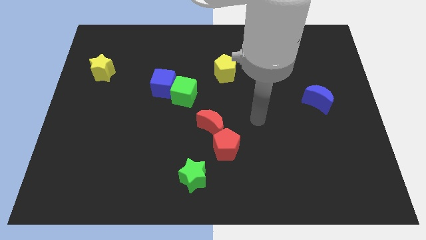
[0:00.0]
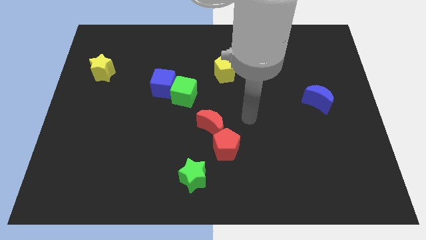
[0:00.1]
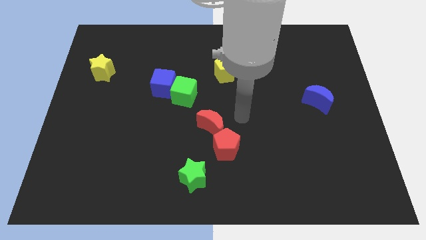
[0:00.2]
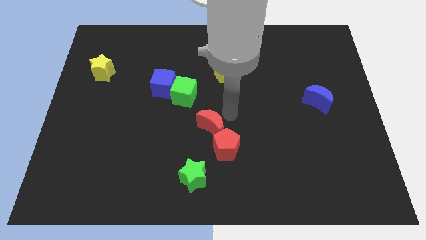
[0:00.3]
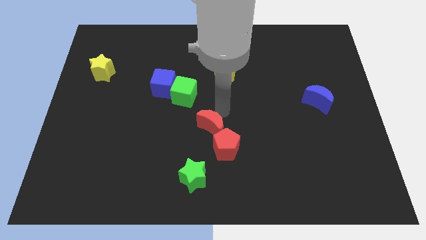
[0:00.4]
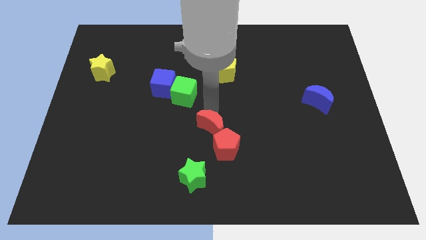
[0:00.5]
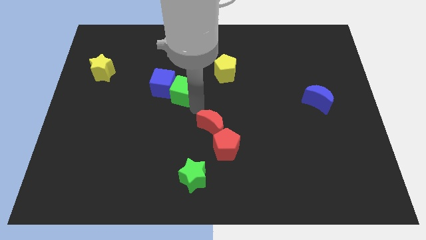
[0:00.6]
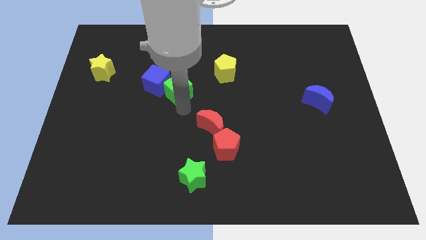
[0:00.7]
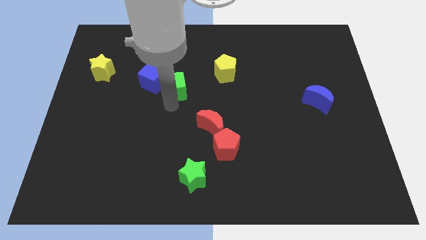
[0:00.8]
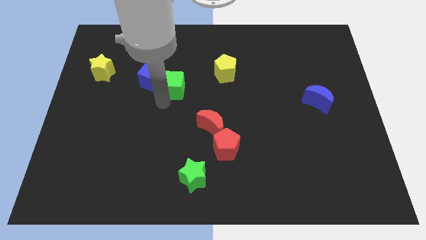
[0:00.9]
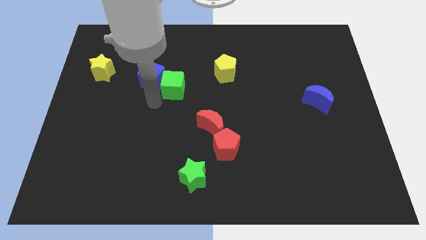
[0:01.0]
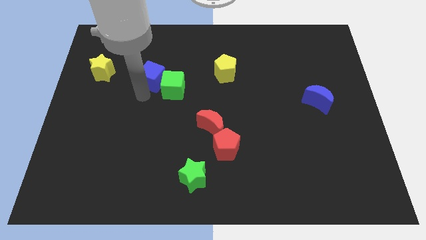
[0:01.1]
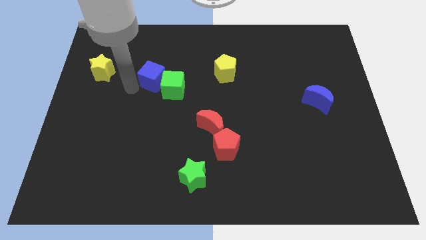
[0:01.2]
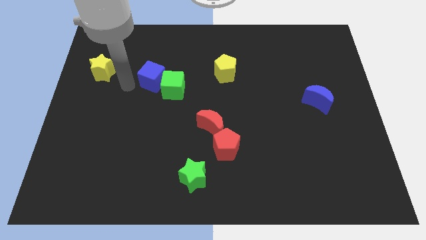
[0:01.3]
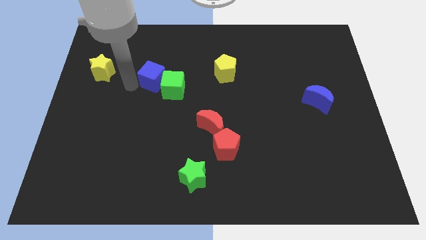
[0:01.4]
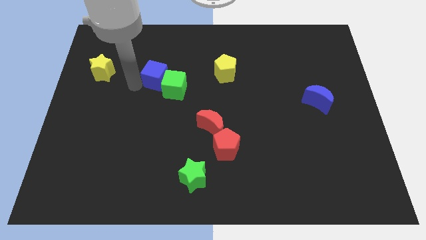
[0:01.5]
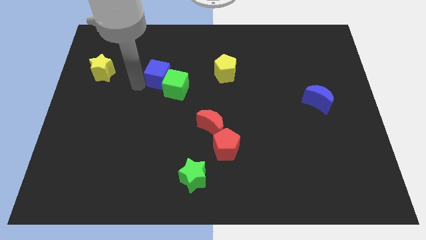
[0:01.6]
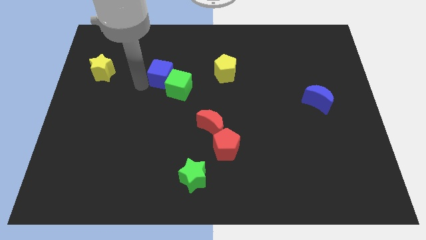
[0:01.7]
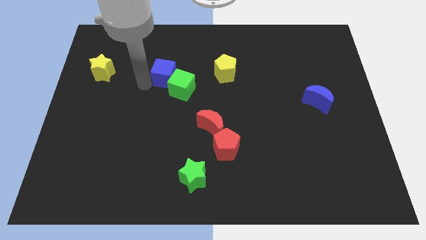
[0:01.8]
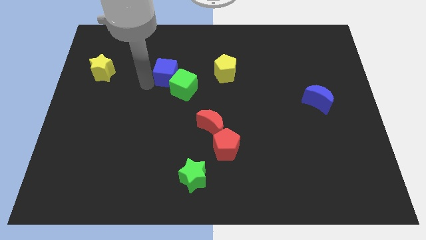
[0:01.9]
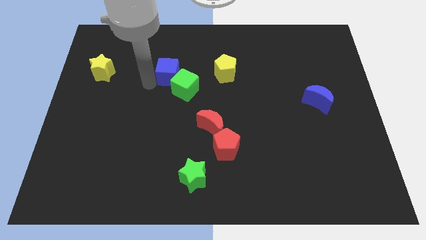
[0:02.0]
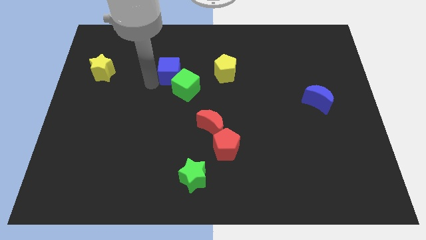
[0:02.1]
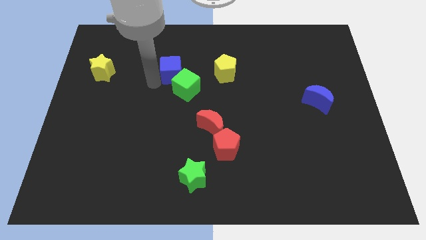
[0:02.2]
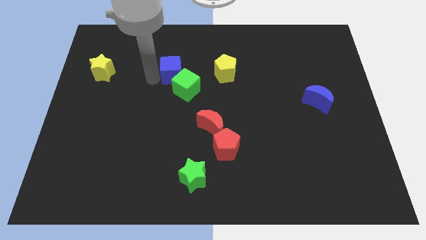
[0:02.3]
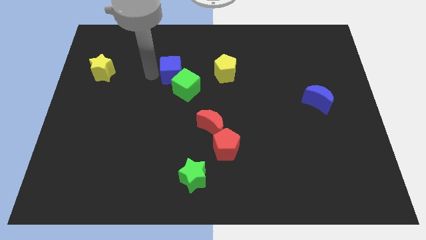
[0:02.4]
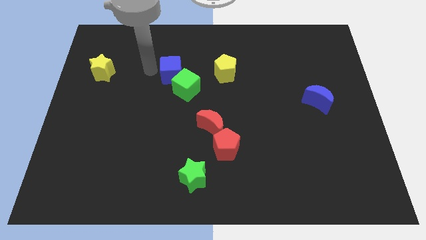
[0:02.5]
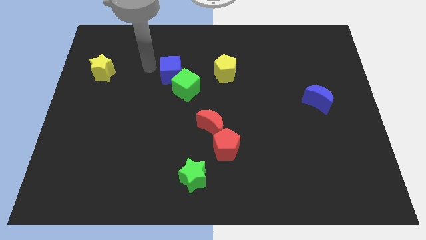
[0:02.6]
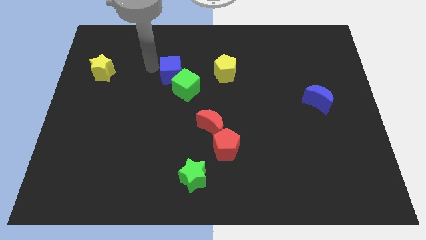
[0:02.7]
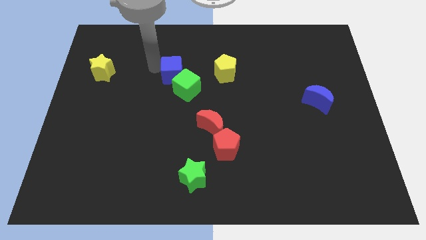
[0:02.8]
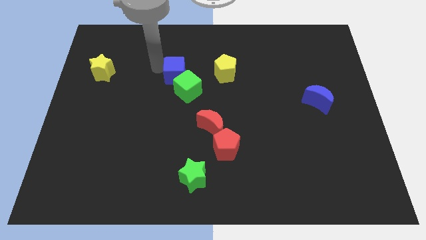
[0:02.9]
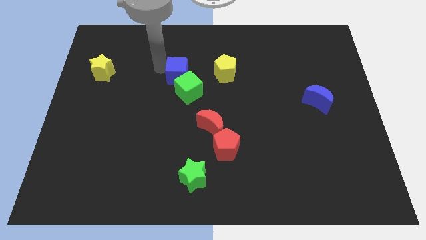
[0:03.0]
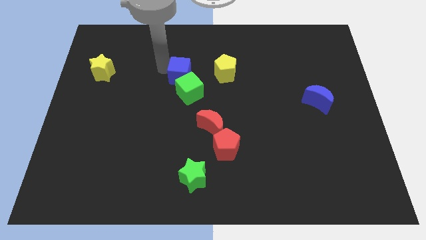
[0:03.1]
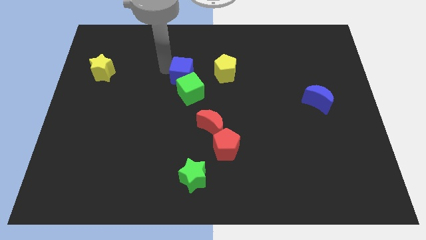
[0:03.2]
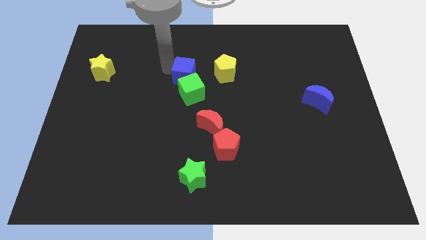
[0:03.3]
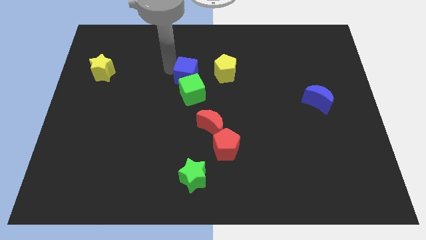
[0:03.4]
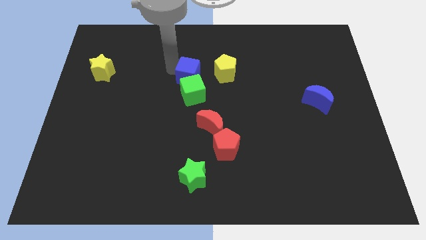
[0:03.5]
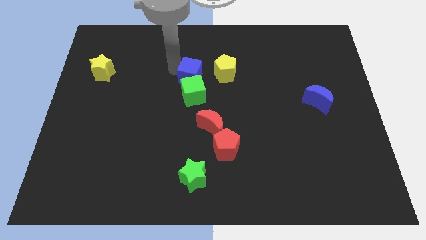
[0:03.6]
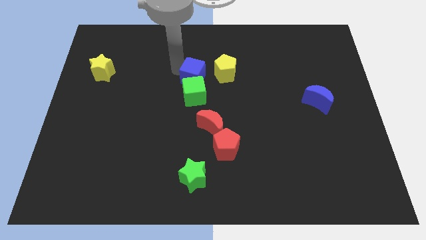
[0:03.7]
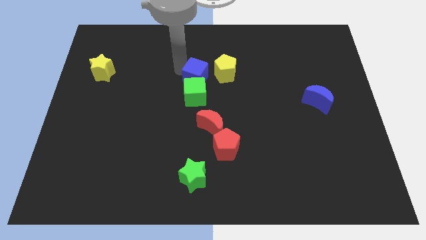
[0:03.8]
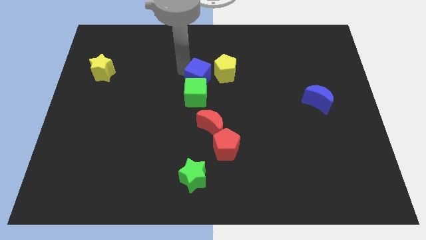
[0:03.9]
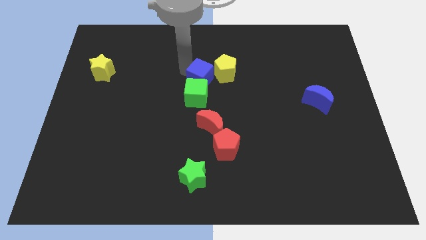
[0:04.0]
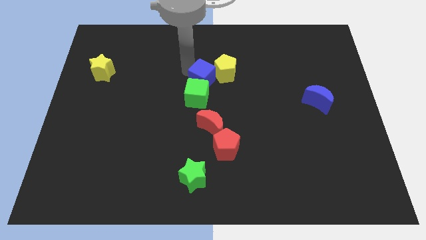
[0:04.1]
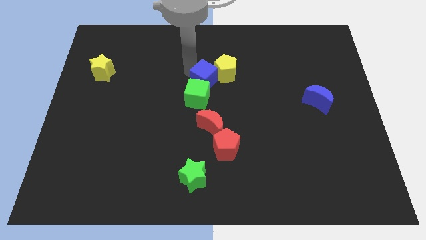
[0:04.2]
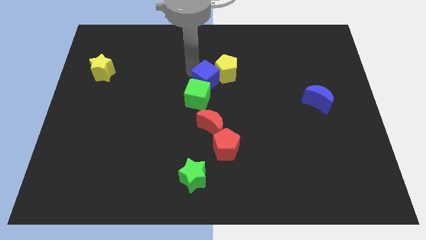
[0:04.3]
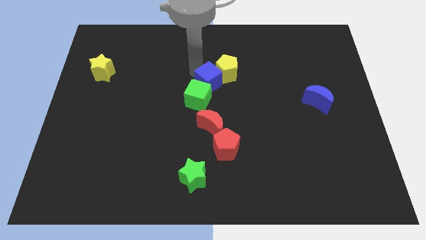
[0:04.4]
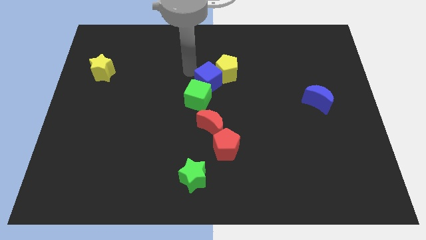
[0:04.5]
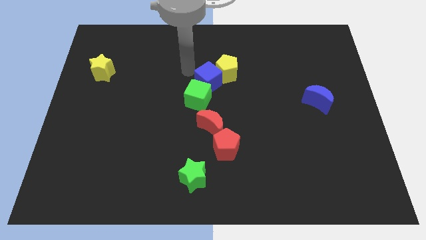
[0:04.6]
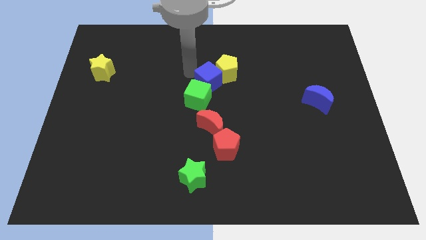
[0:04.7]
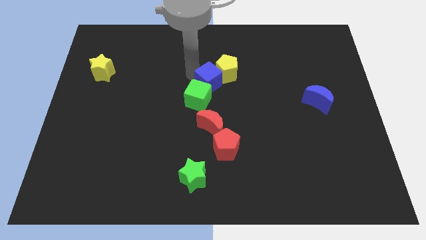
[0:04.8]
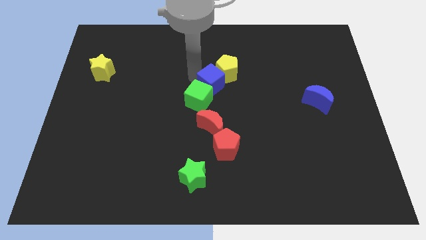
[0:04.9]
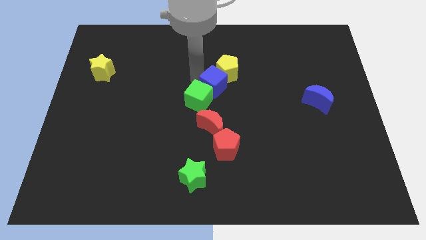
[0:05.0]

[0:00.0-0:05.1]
push the blue cube just right of the green cube

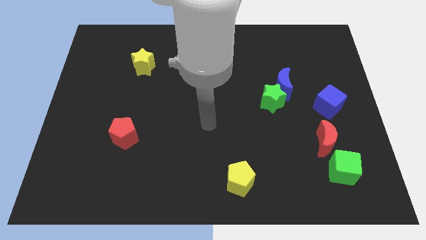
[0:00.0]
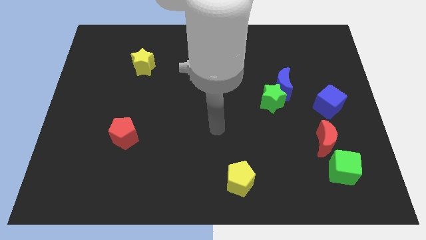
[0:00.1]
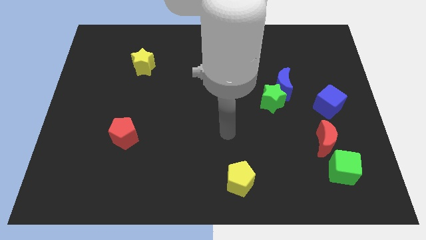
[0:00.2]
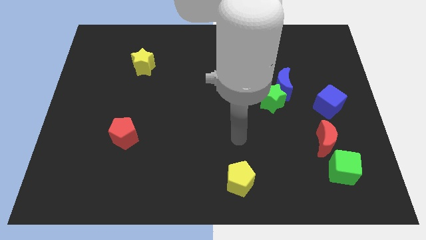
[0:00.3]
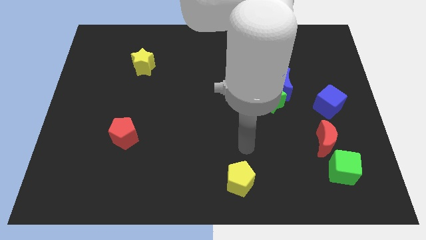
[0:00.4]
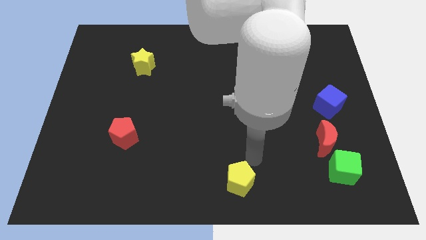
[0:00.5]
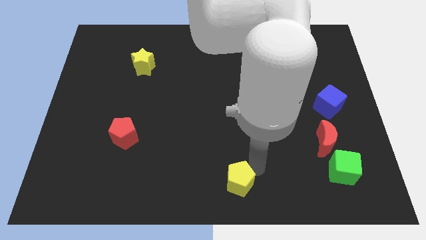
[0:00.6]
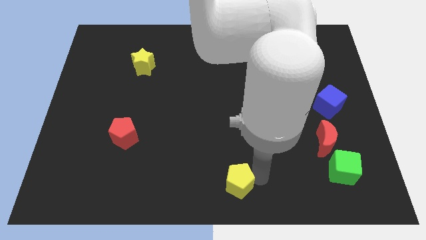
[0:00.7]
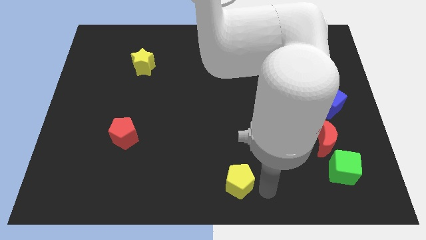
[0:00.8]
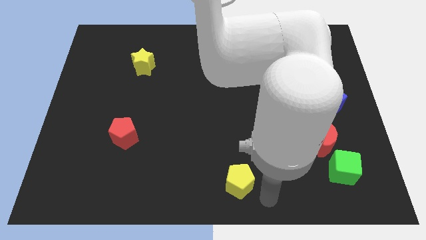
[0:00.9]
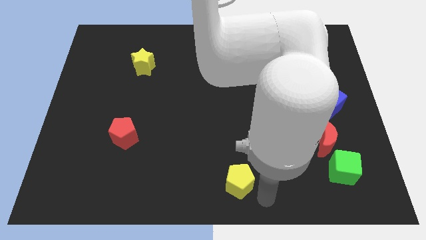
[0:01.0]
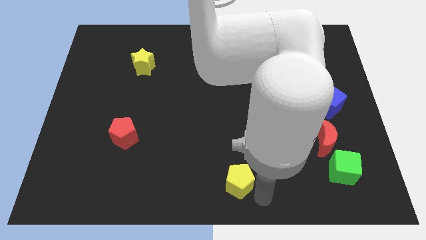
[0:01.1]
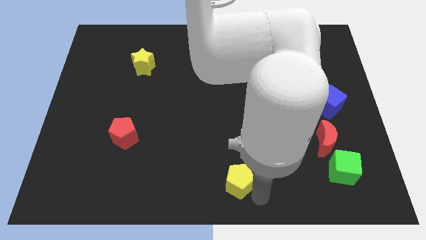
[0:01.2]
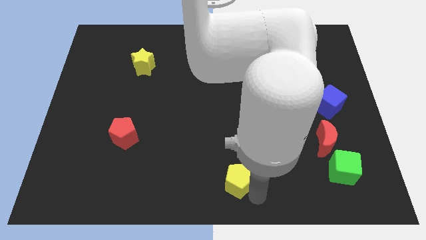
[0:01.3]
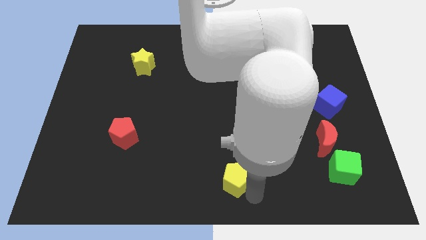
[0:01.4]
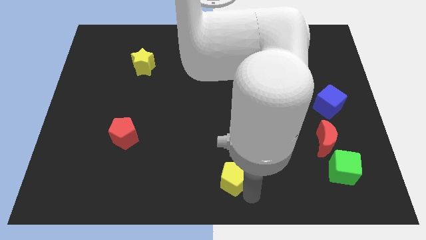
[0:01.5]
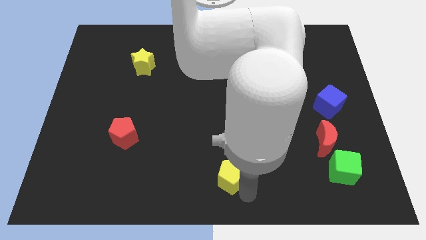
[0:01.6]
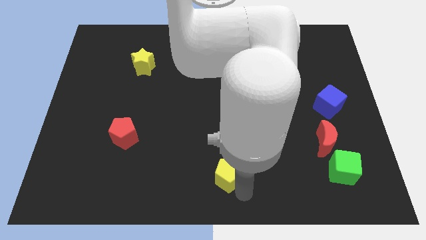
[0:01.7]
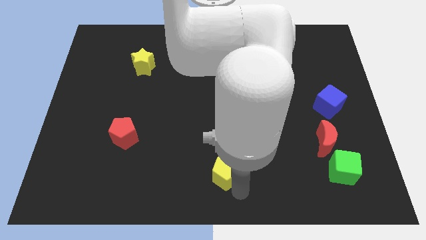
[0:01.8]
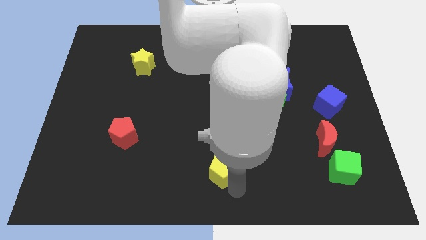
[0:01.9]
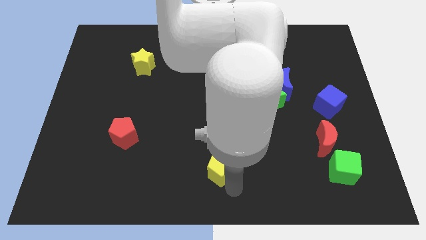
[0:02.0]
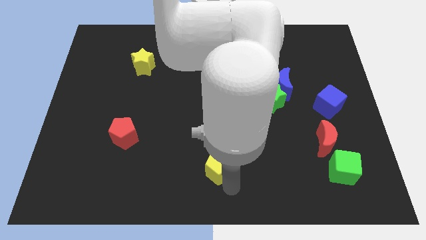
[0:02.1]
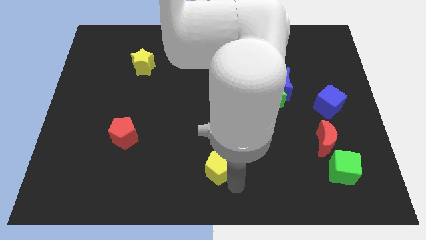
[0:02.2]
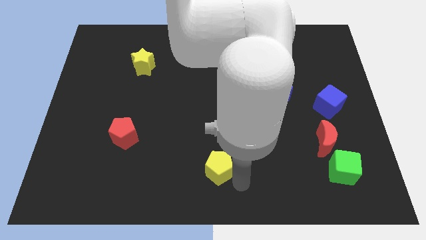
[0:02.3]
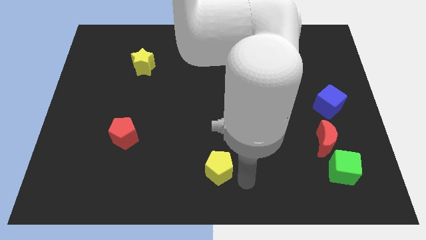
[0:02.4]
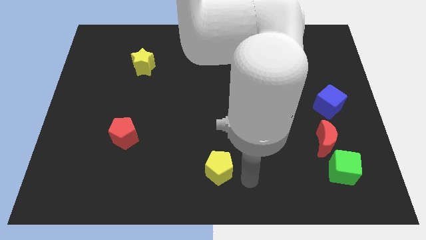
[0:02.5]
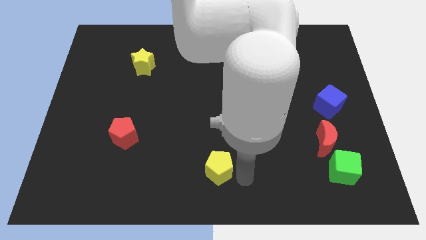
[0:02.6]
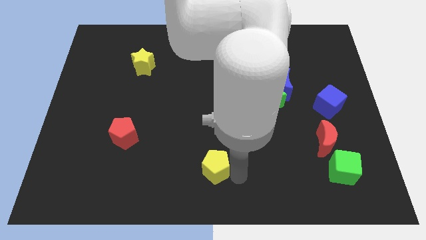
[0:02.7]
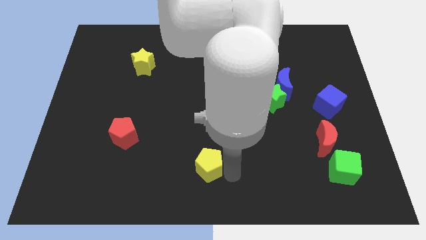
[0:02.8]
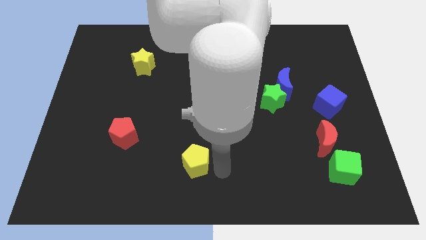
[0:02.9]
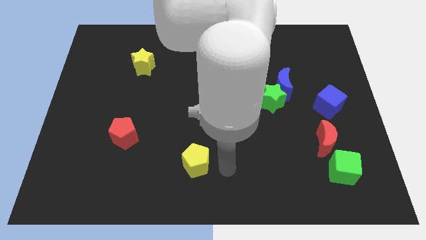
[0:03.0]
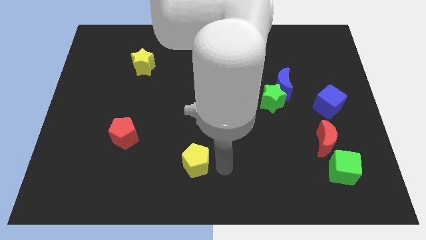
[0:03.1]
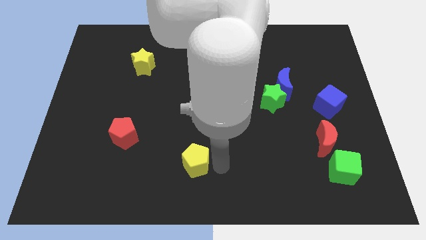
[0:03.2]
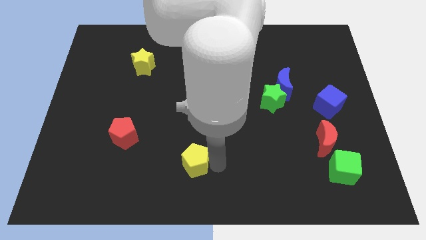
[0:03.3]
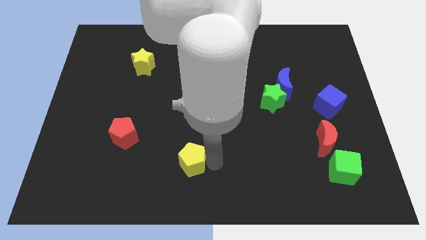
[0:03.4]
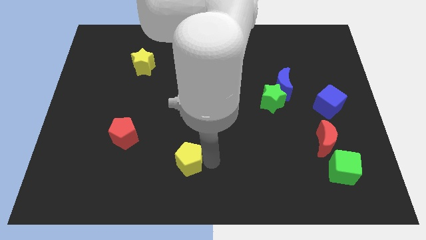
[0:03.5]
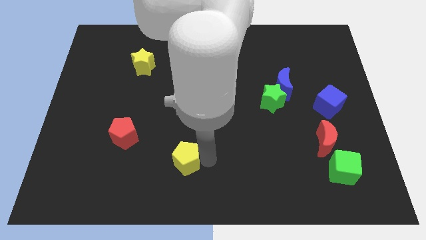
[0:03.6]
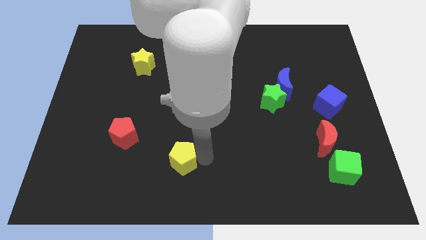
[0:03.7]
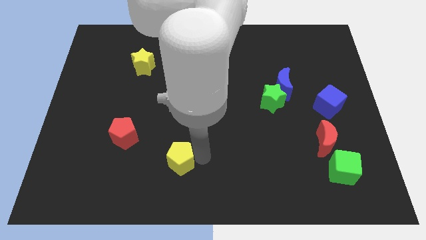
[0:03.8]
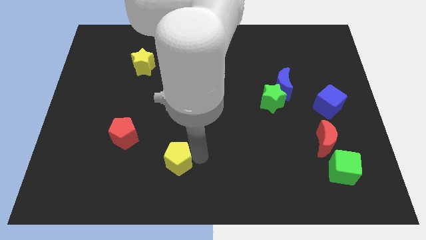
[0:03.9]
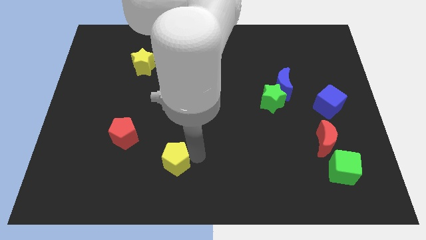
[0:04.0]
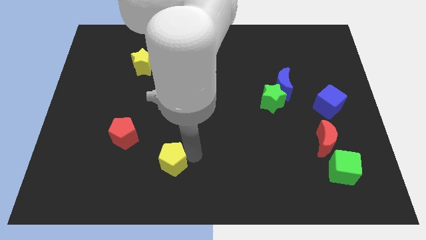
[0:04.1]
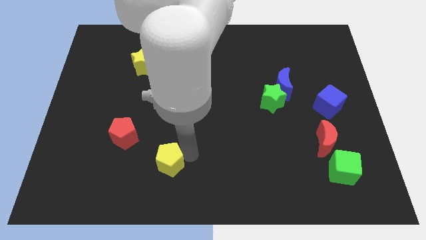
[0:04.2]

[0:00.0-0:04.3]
move the yellow pentagon to the bottom right of the red pentagon
